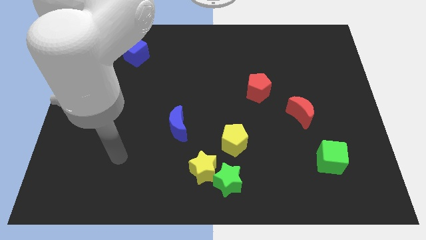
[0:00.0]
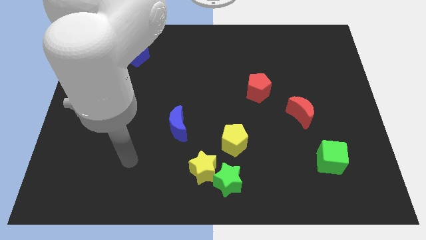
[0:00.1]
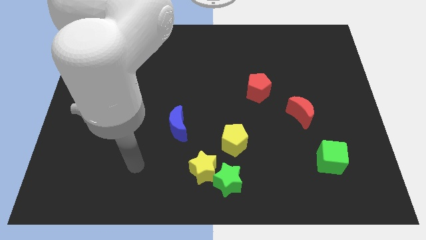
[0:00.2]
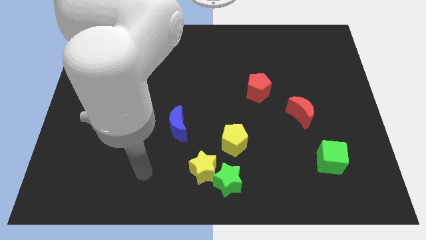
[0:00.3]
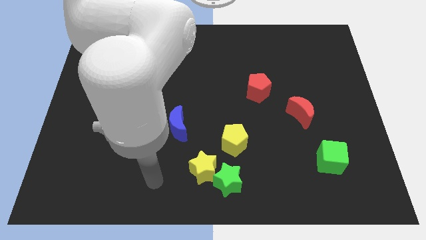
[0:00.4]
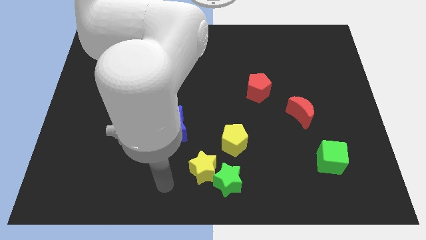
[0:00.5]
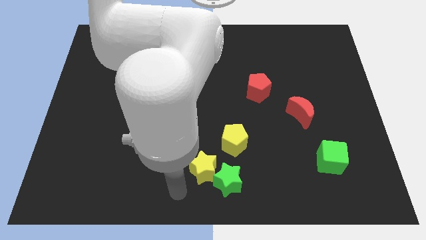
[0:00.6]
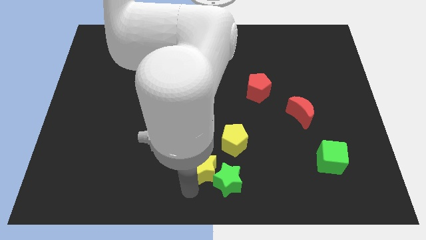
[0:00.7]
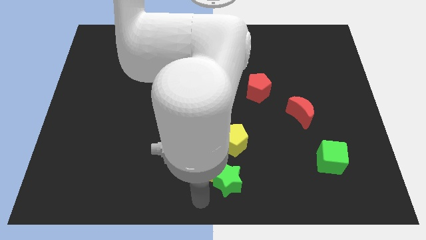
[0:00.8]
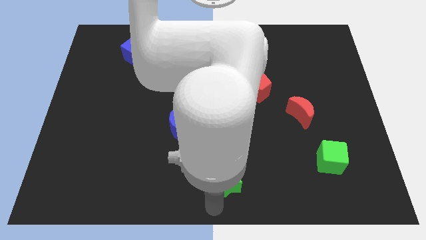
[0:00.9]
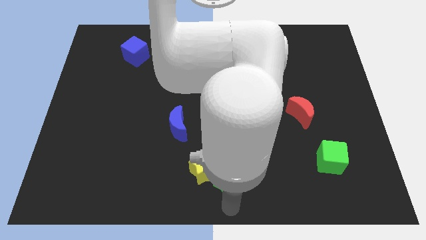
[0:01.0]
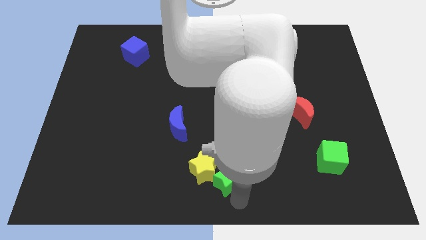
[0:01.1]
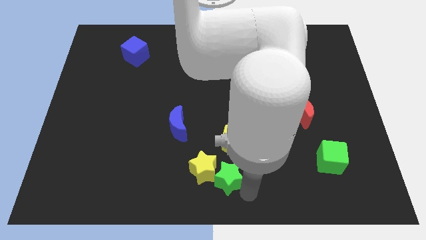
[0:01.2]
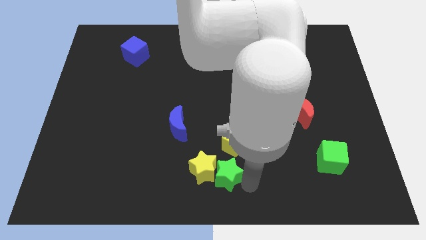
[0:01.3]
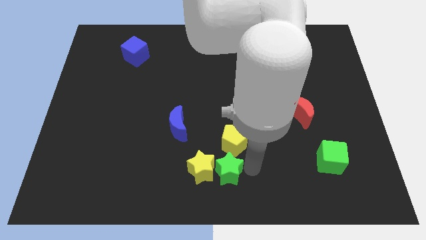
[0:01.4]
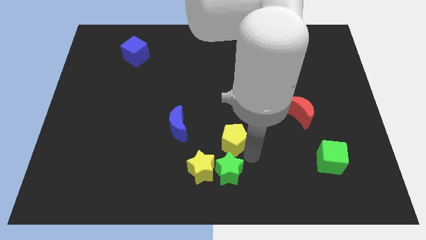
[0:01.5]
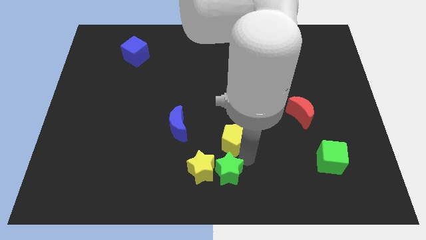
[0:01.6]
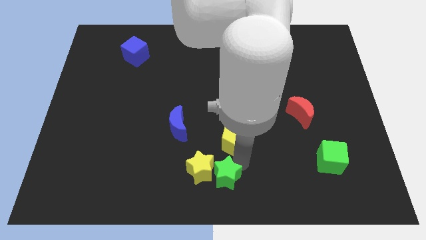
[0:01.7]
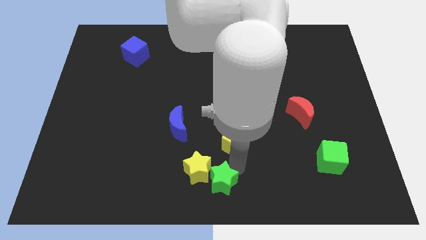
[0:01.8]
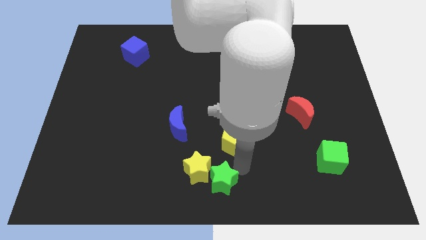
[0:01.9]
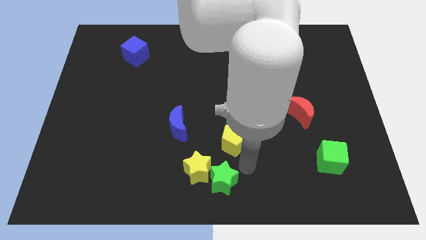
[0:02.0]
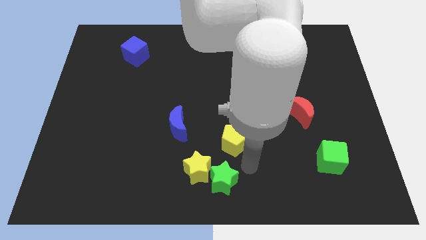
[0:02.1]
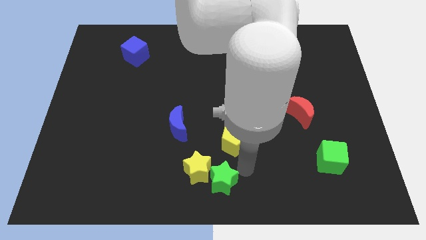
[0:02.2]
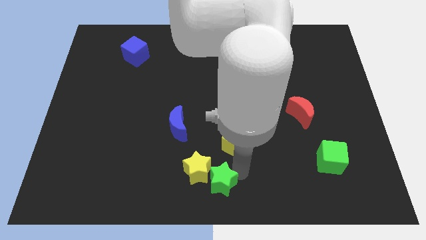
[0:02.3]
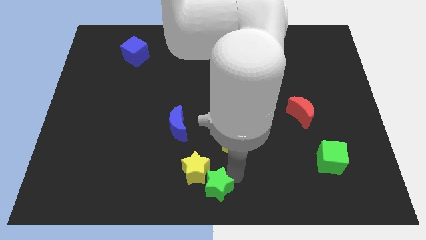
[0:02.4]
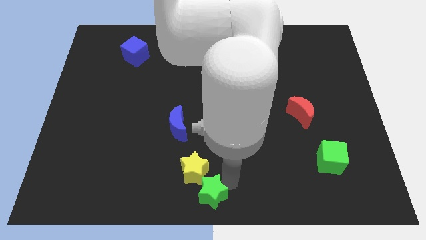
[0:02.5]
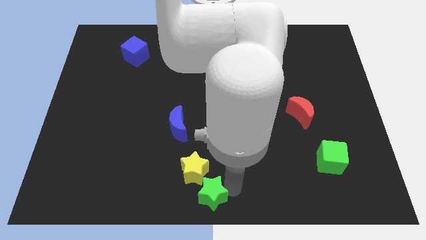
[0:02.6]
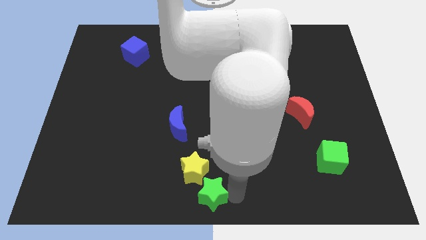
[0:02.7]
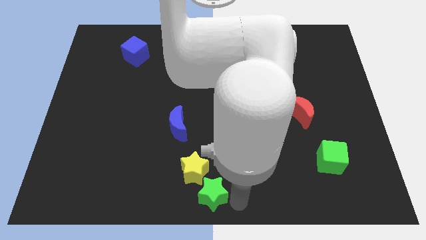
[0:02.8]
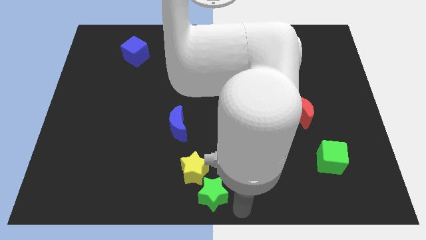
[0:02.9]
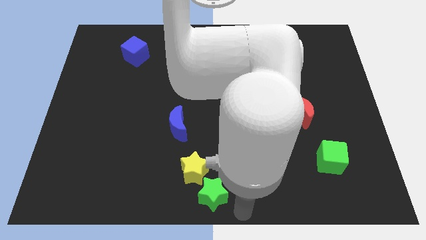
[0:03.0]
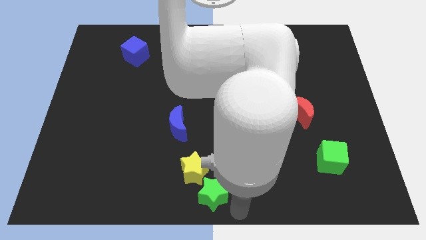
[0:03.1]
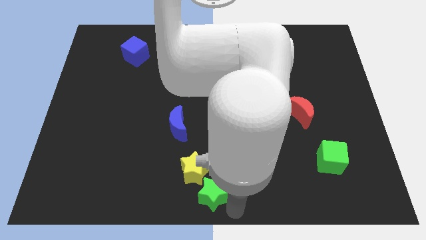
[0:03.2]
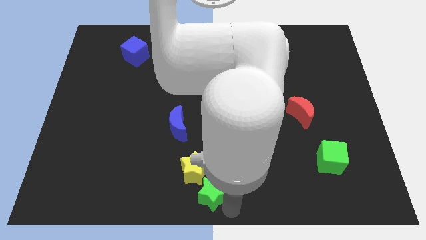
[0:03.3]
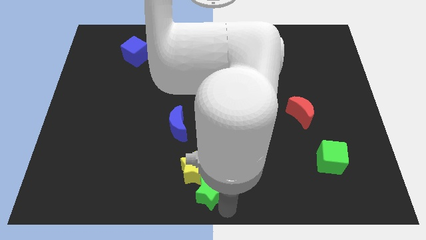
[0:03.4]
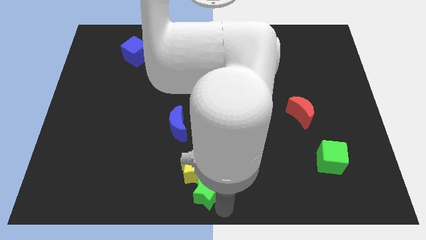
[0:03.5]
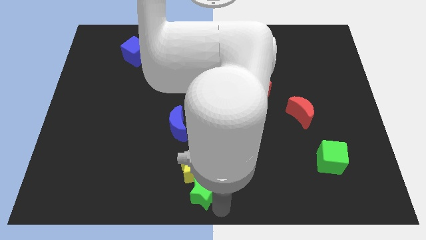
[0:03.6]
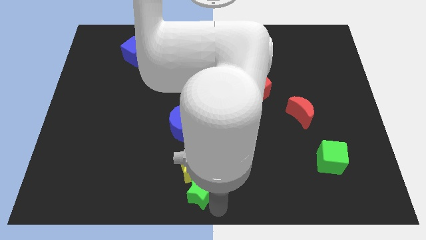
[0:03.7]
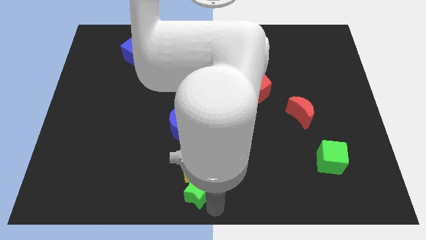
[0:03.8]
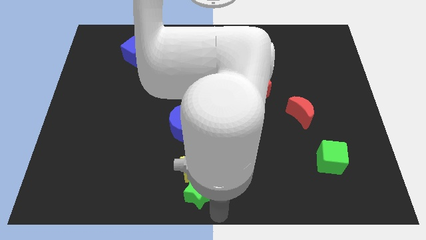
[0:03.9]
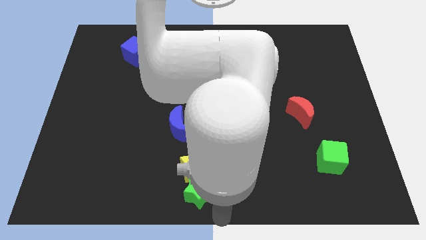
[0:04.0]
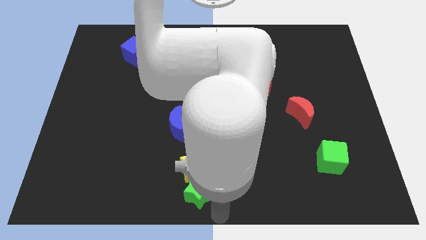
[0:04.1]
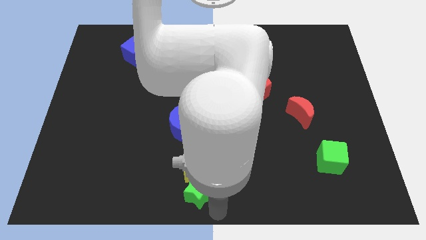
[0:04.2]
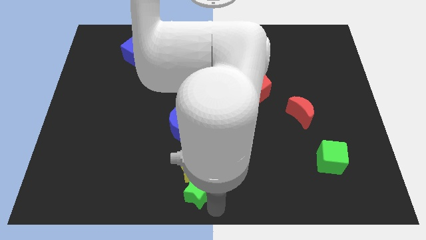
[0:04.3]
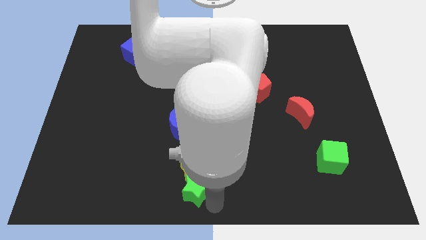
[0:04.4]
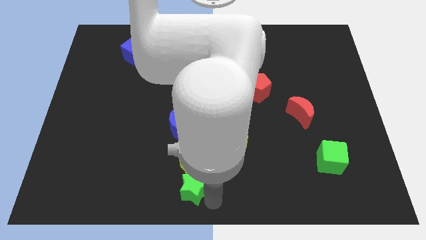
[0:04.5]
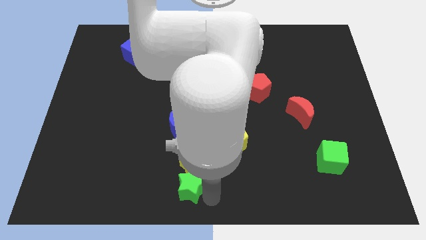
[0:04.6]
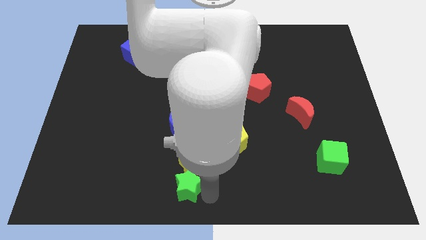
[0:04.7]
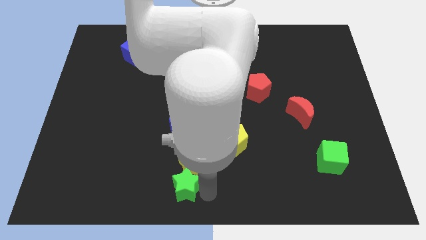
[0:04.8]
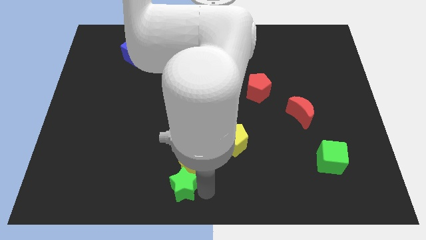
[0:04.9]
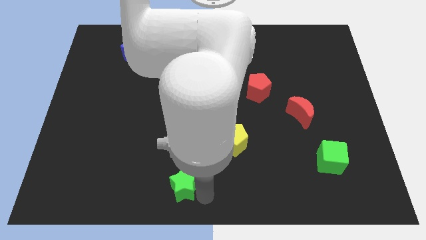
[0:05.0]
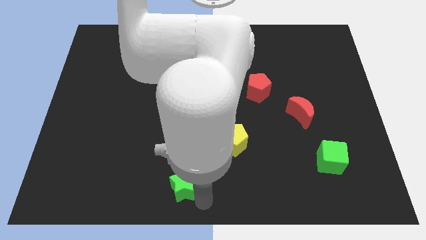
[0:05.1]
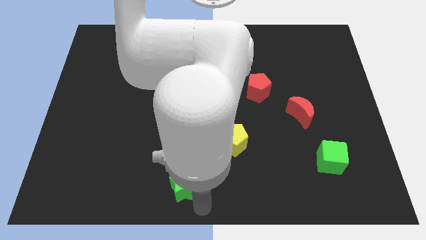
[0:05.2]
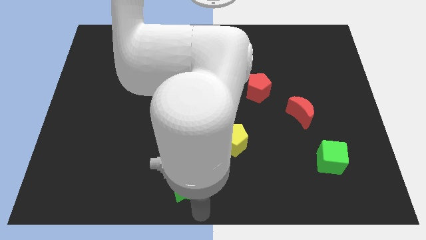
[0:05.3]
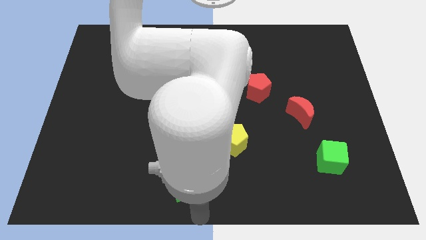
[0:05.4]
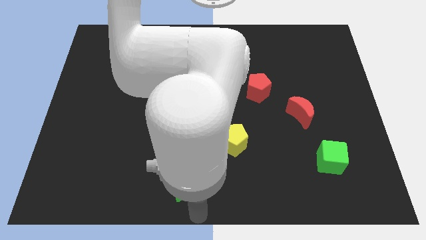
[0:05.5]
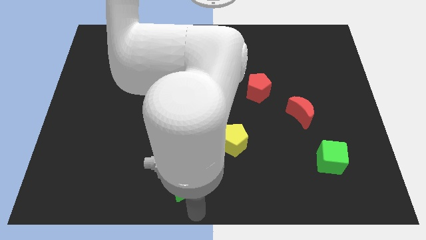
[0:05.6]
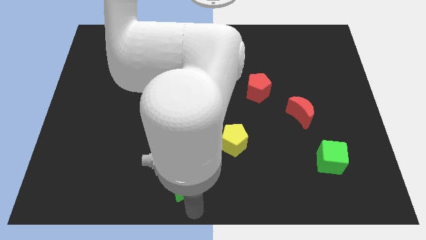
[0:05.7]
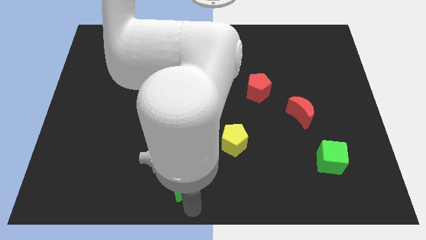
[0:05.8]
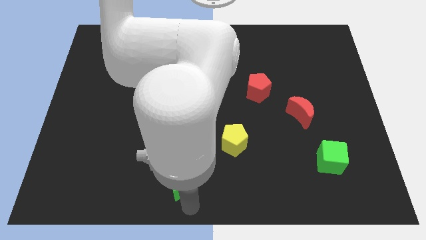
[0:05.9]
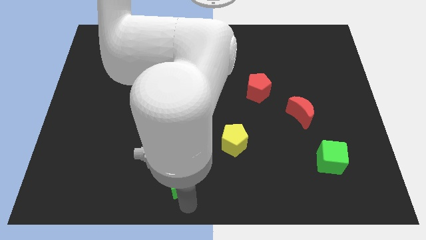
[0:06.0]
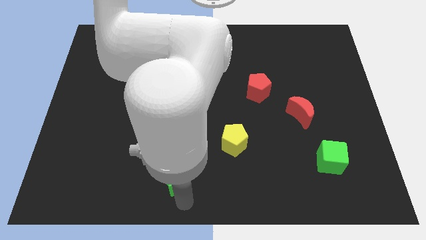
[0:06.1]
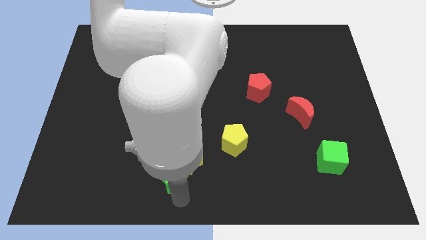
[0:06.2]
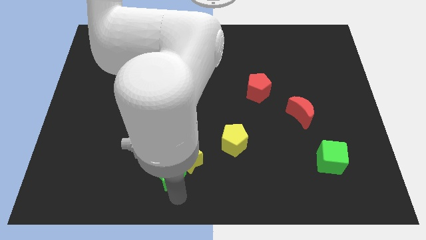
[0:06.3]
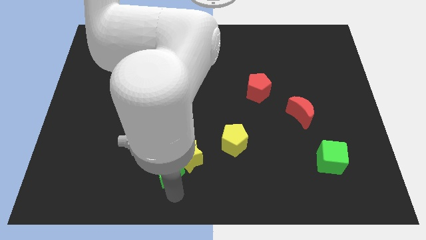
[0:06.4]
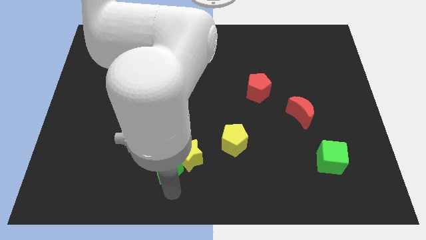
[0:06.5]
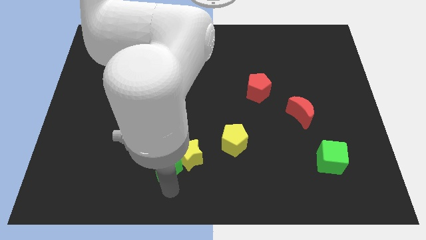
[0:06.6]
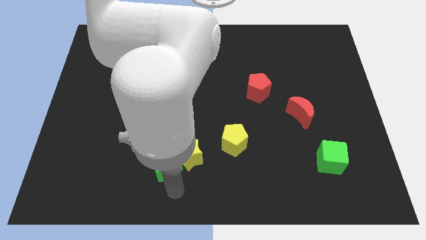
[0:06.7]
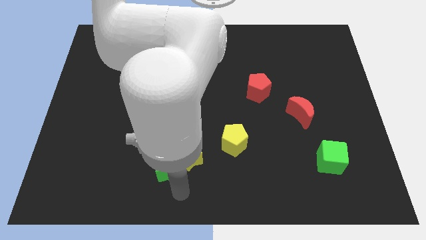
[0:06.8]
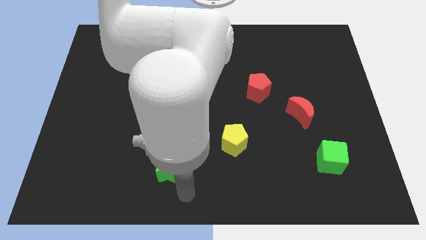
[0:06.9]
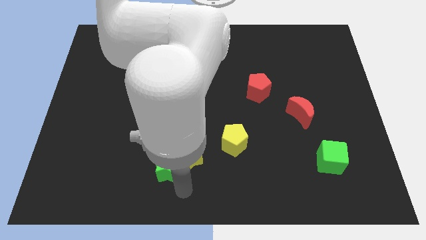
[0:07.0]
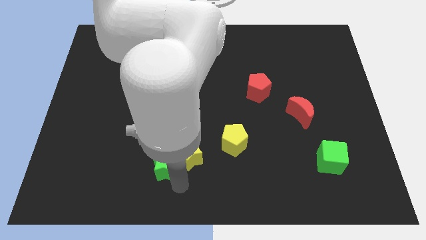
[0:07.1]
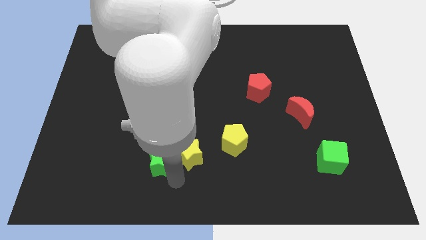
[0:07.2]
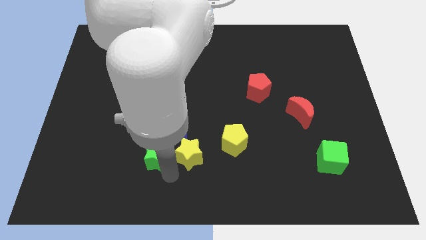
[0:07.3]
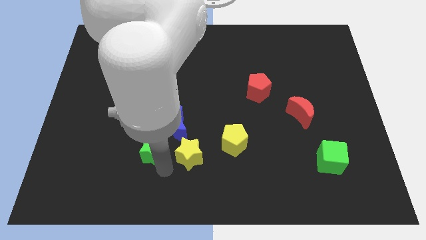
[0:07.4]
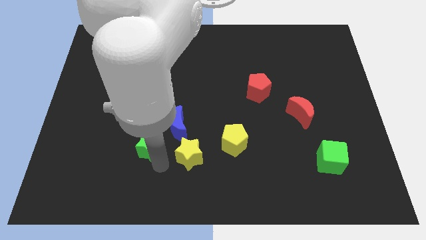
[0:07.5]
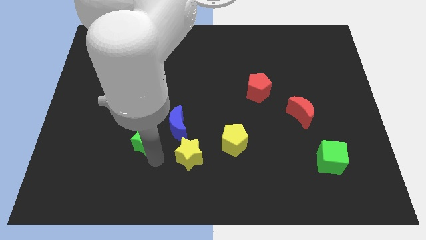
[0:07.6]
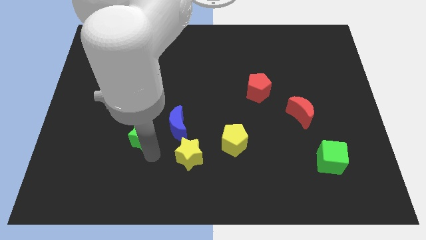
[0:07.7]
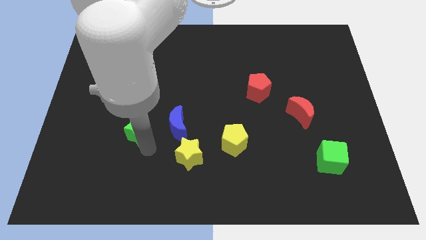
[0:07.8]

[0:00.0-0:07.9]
slide the green star upwards and then to the left

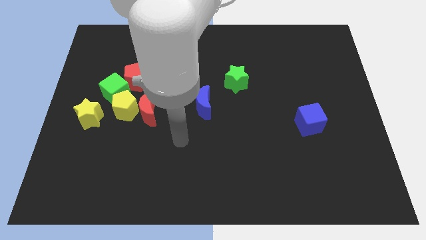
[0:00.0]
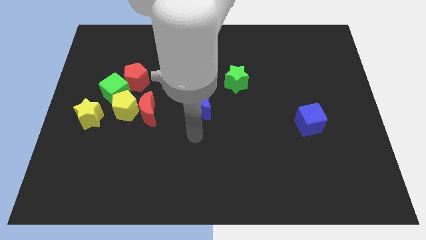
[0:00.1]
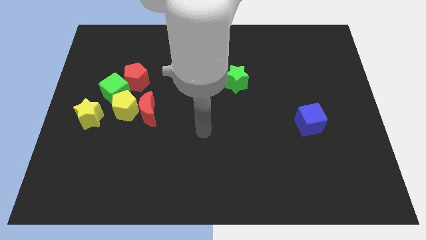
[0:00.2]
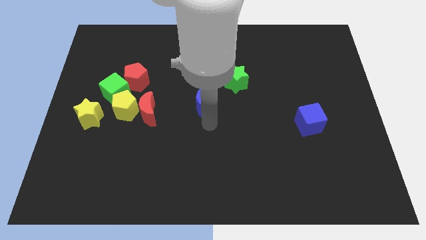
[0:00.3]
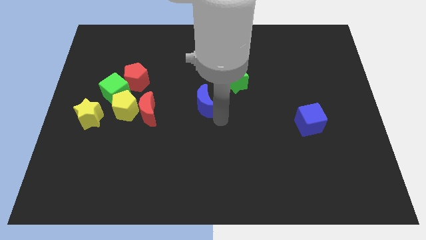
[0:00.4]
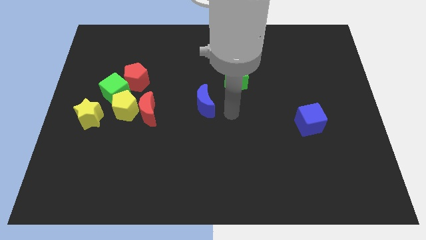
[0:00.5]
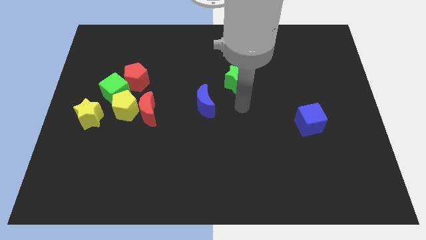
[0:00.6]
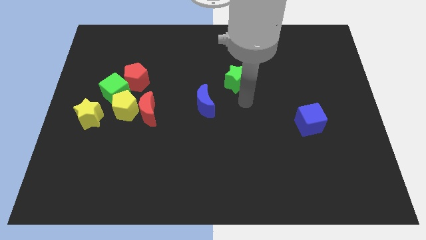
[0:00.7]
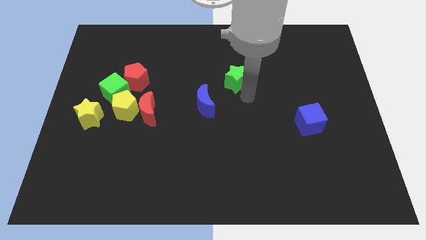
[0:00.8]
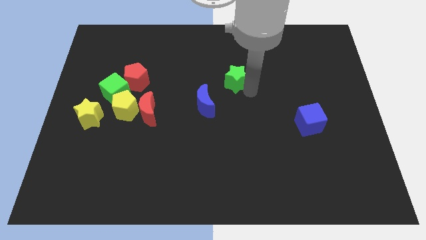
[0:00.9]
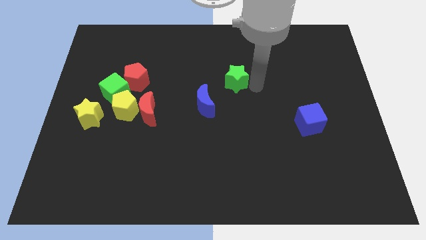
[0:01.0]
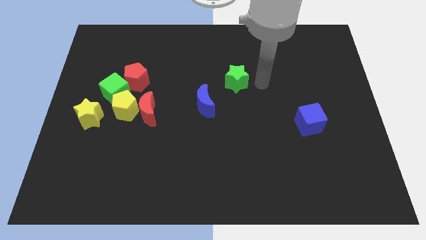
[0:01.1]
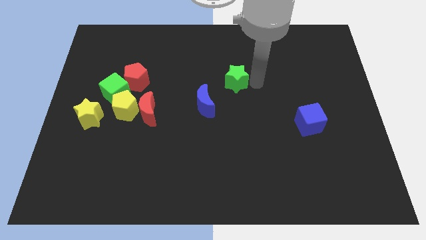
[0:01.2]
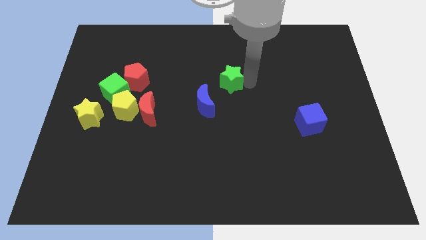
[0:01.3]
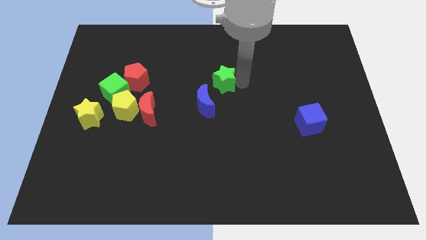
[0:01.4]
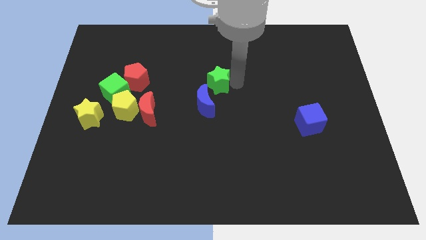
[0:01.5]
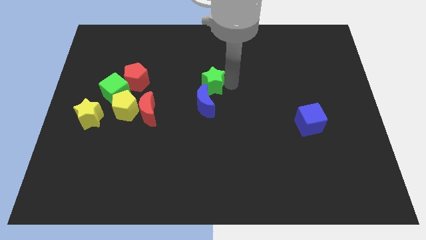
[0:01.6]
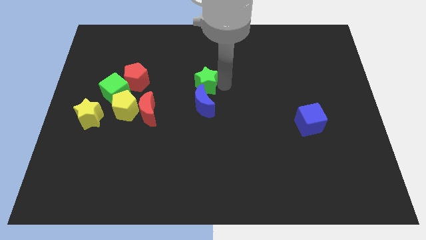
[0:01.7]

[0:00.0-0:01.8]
push the green star somewhat left
